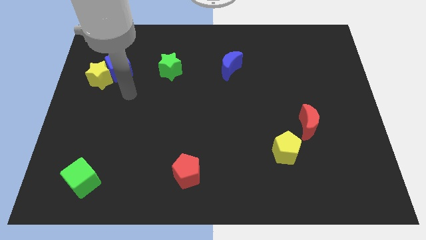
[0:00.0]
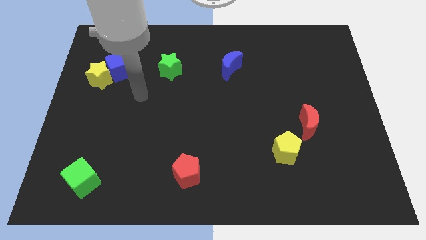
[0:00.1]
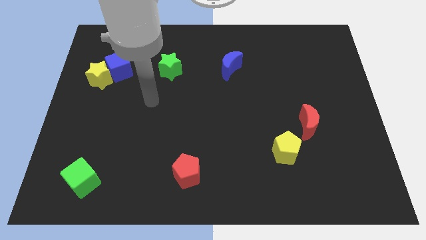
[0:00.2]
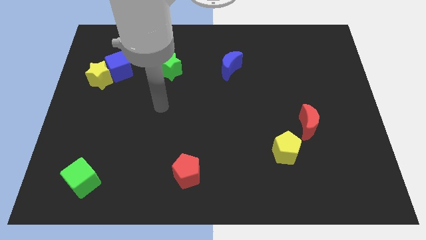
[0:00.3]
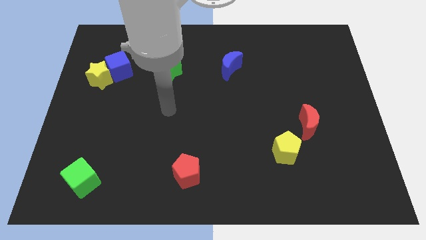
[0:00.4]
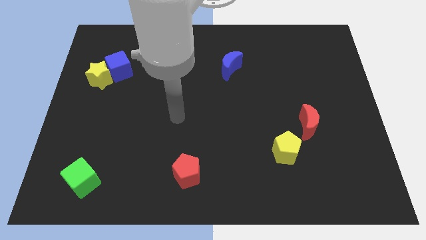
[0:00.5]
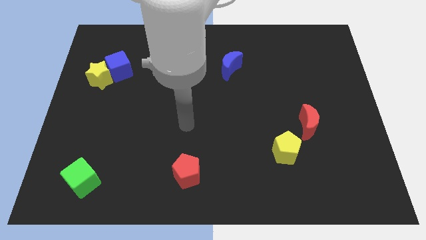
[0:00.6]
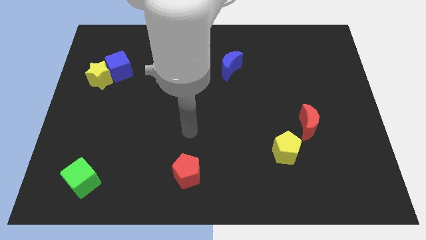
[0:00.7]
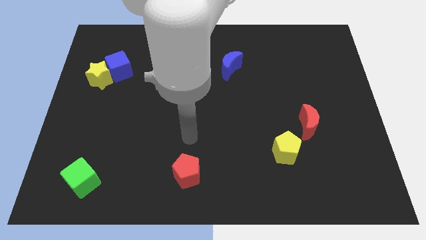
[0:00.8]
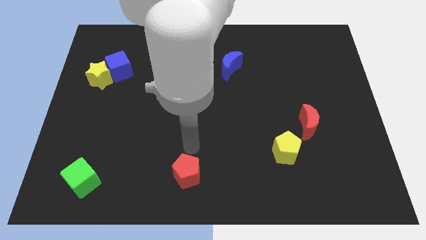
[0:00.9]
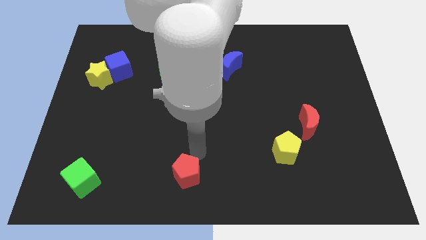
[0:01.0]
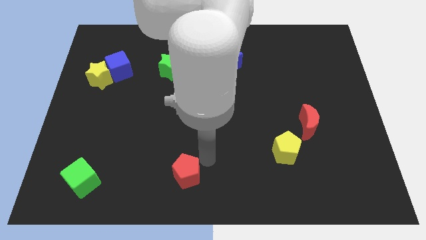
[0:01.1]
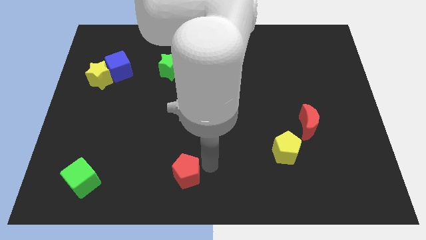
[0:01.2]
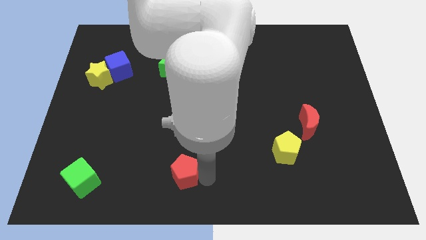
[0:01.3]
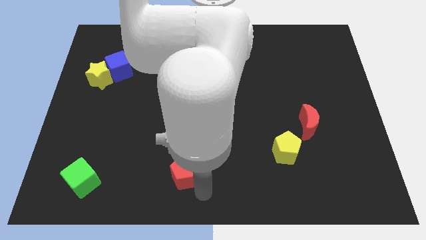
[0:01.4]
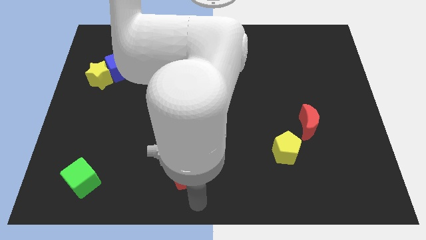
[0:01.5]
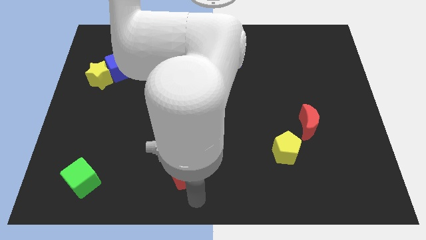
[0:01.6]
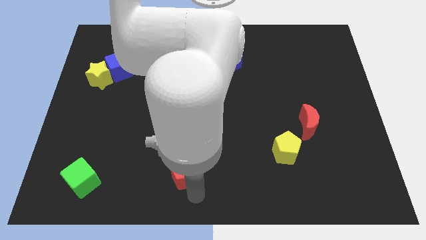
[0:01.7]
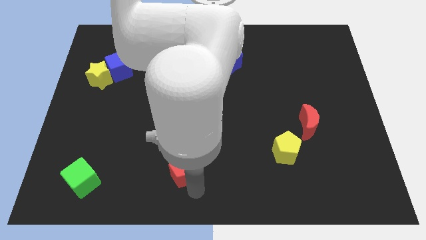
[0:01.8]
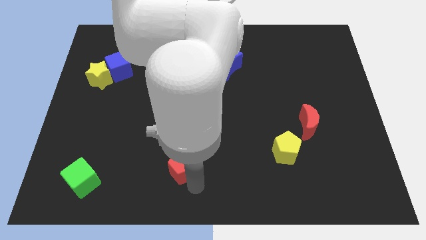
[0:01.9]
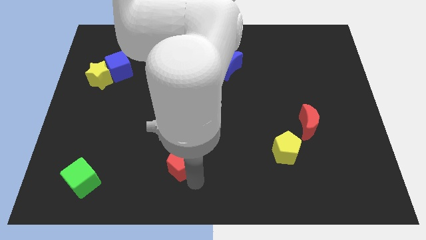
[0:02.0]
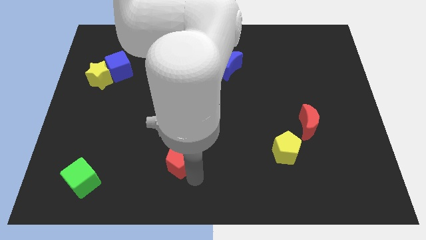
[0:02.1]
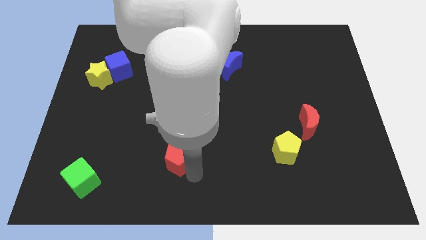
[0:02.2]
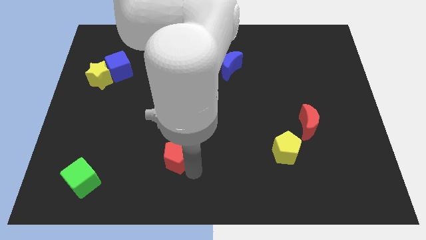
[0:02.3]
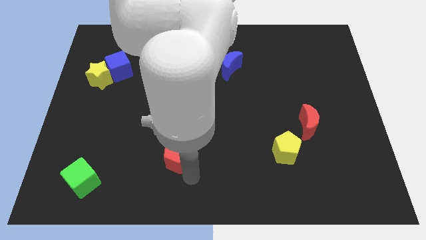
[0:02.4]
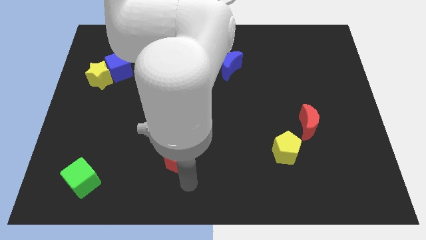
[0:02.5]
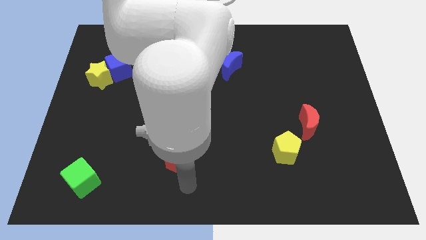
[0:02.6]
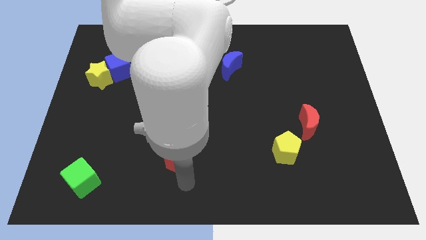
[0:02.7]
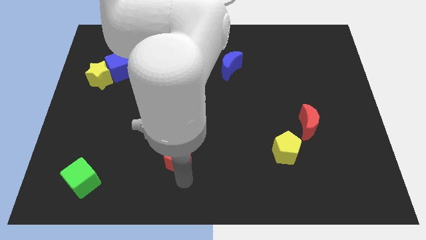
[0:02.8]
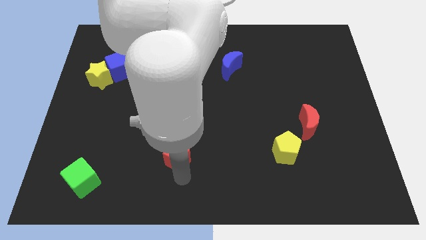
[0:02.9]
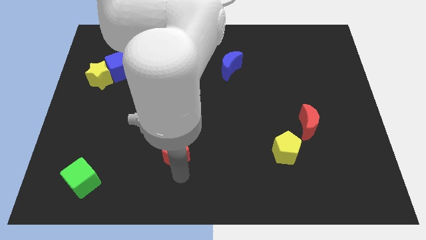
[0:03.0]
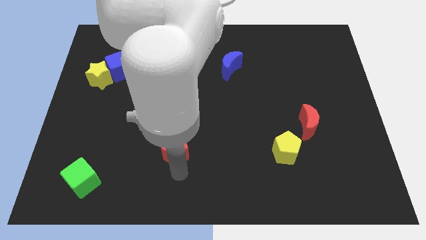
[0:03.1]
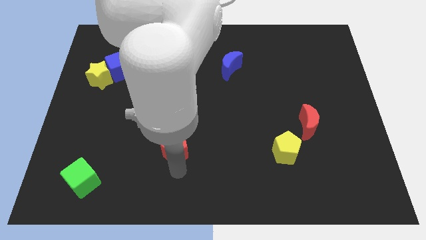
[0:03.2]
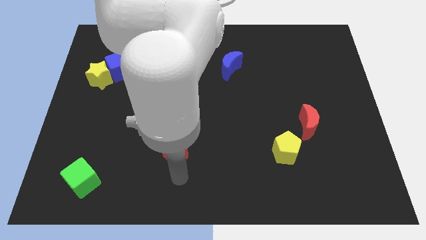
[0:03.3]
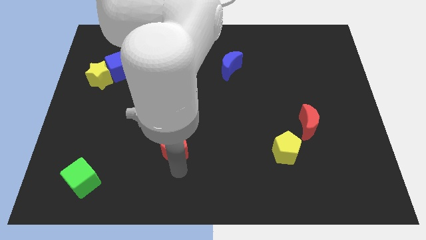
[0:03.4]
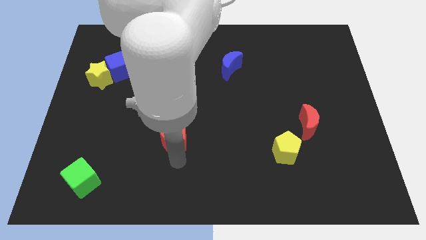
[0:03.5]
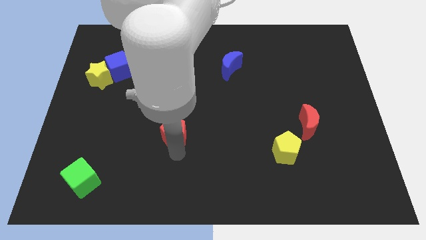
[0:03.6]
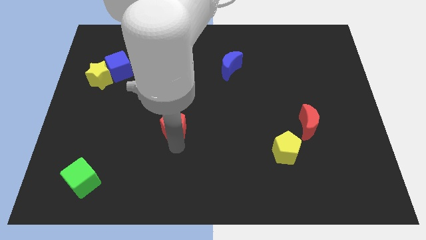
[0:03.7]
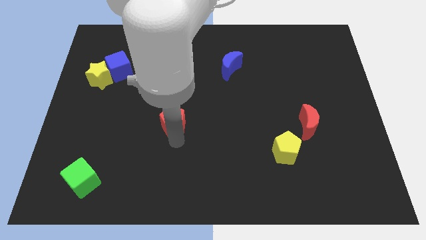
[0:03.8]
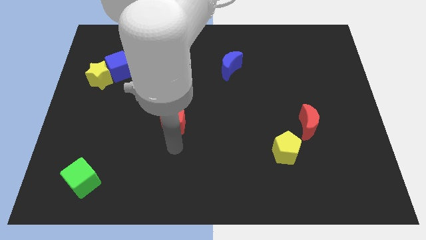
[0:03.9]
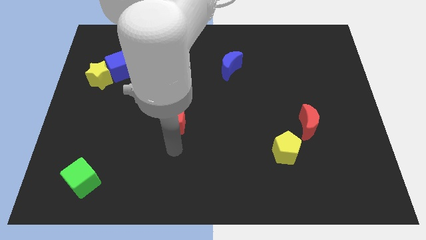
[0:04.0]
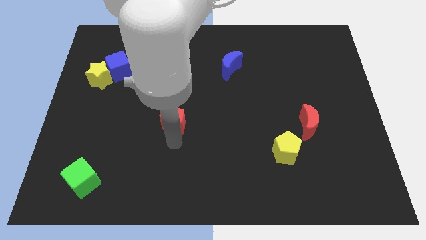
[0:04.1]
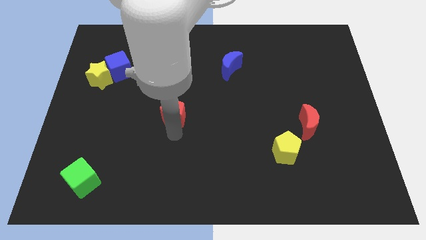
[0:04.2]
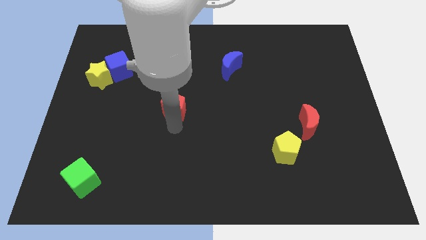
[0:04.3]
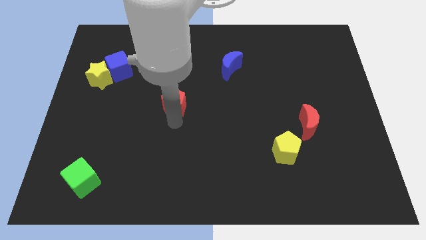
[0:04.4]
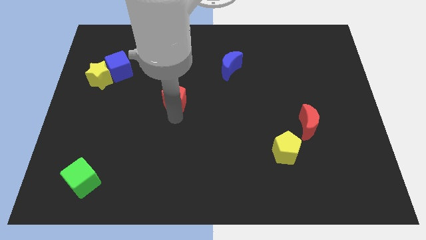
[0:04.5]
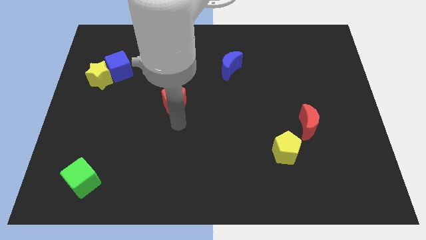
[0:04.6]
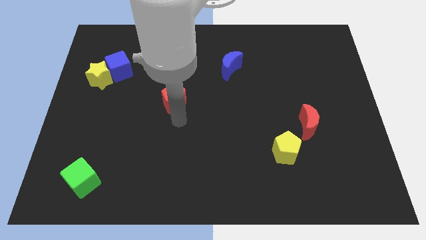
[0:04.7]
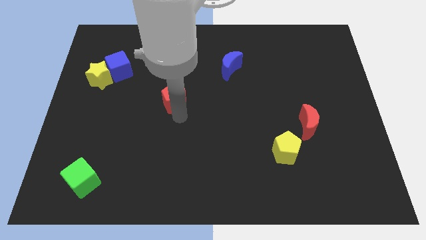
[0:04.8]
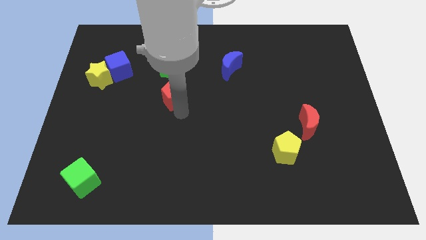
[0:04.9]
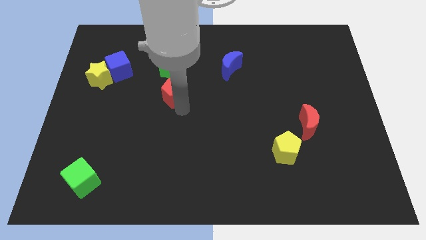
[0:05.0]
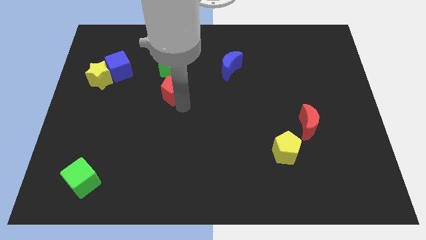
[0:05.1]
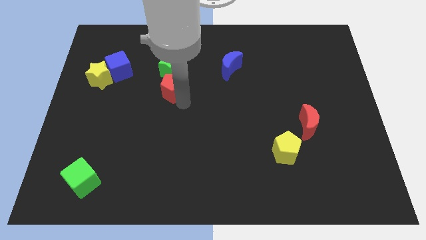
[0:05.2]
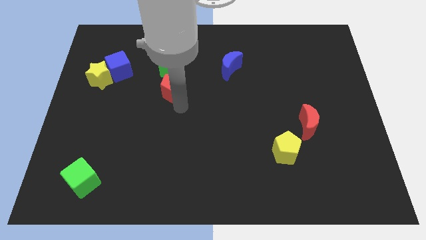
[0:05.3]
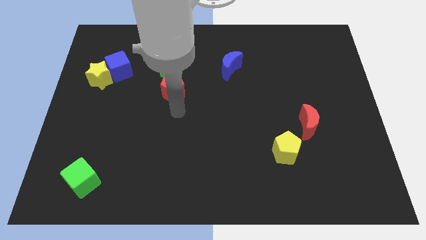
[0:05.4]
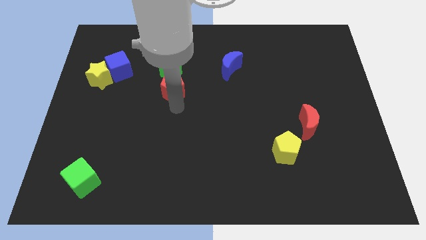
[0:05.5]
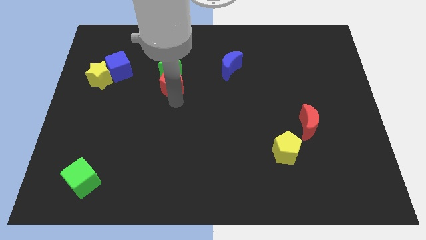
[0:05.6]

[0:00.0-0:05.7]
slide the red pentagon close to the green star
